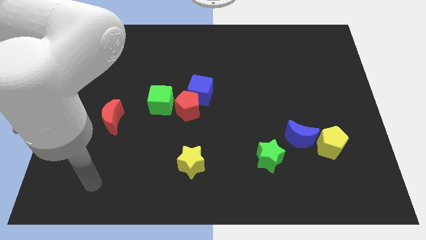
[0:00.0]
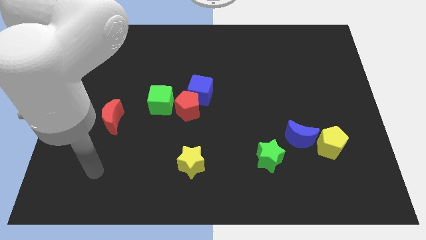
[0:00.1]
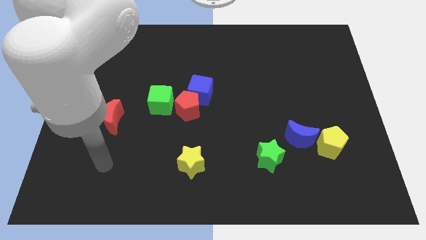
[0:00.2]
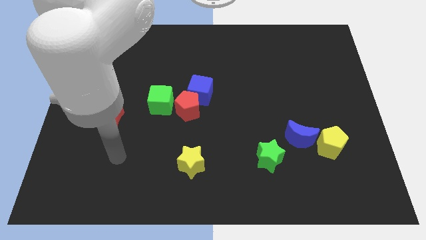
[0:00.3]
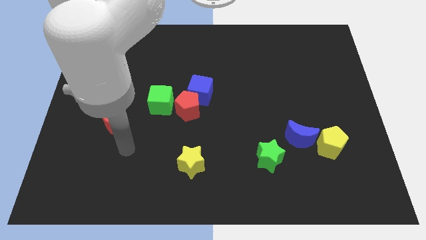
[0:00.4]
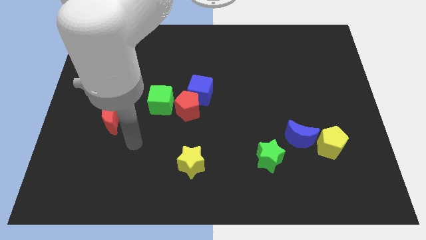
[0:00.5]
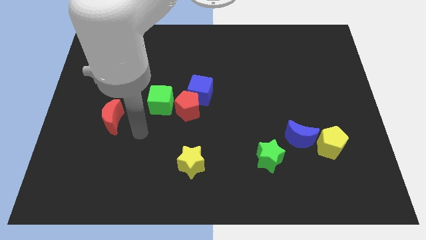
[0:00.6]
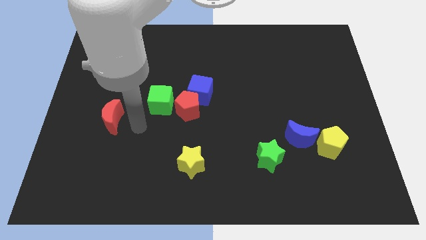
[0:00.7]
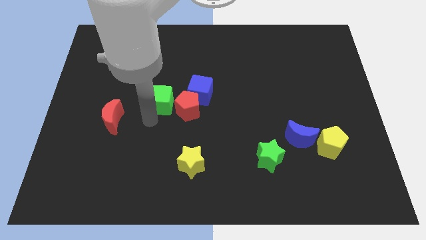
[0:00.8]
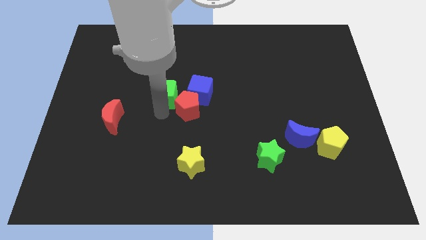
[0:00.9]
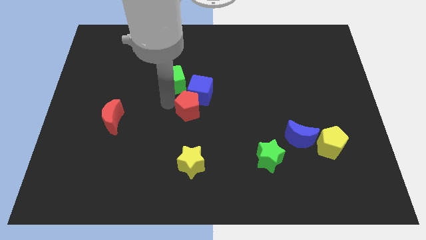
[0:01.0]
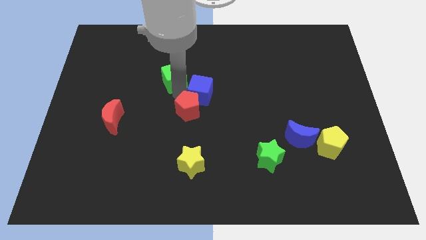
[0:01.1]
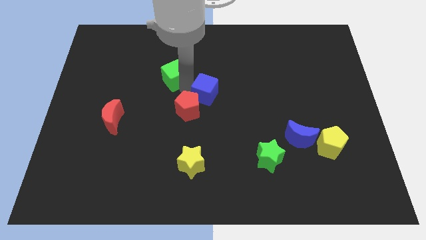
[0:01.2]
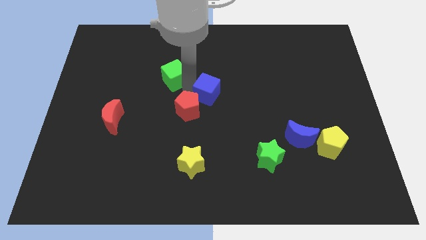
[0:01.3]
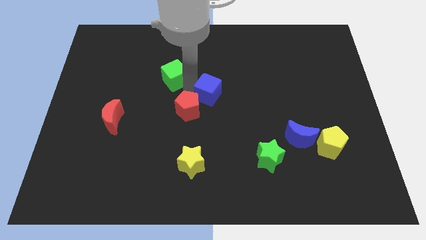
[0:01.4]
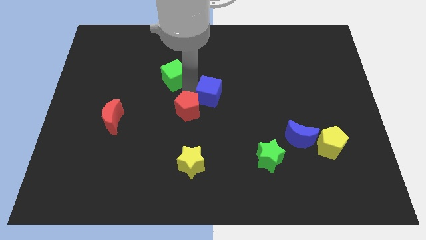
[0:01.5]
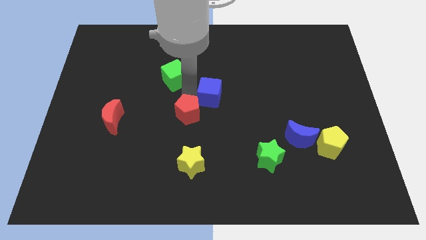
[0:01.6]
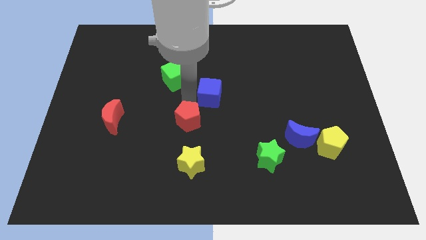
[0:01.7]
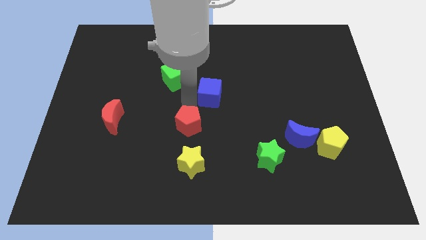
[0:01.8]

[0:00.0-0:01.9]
pull the red pentagon apart from the blue cube and green cube

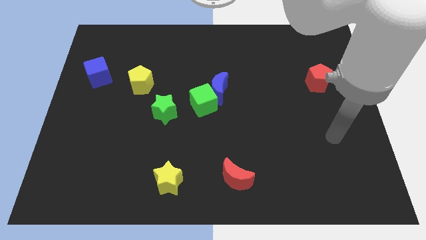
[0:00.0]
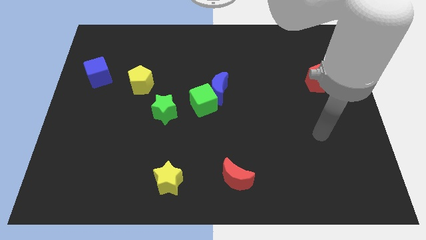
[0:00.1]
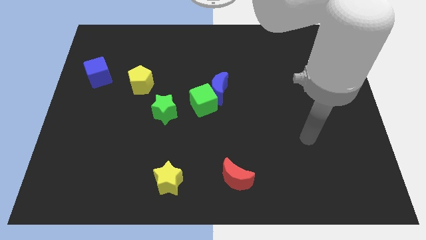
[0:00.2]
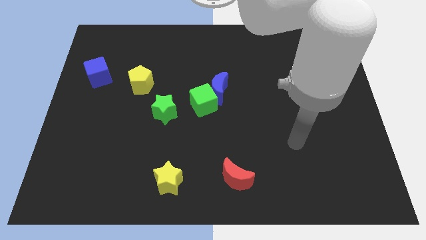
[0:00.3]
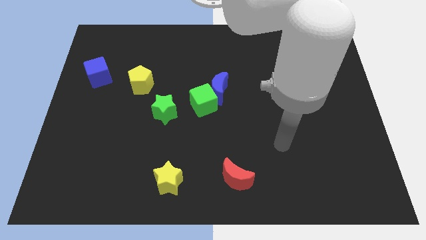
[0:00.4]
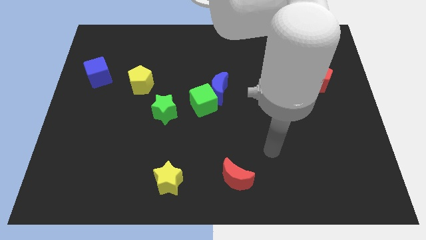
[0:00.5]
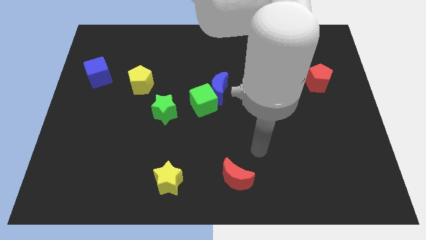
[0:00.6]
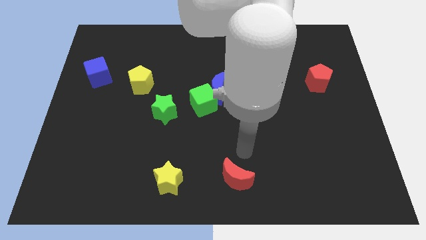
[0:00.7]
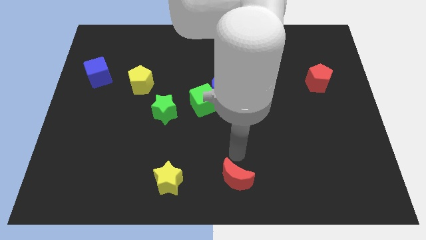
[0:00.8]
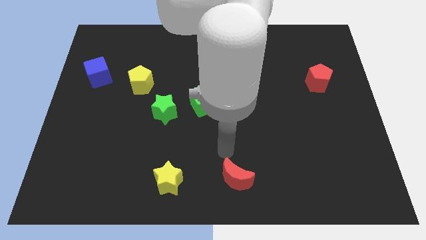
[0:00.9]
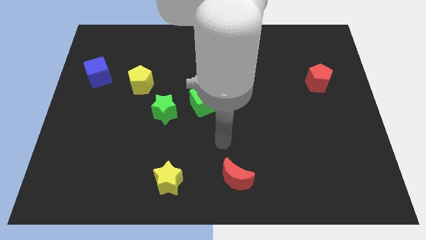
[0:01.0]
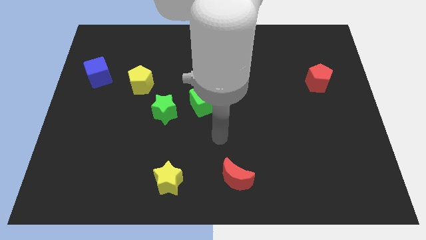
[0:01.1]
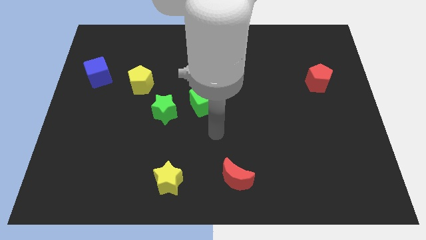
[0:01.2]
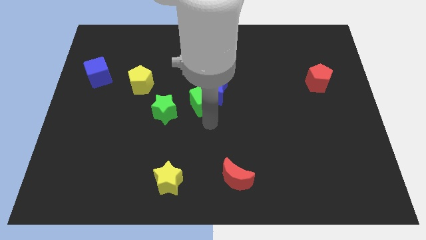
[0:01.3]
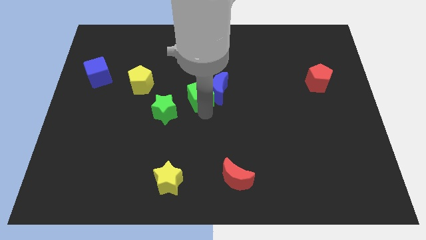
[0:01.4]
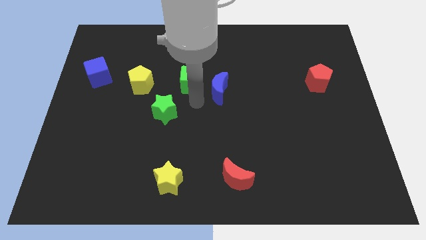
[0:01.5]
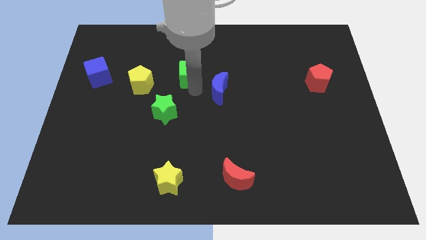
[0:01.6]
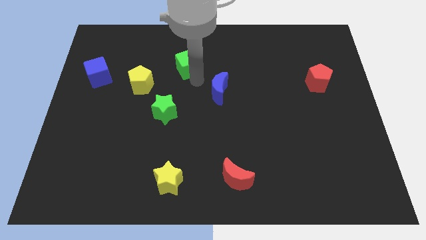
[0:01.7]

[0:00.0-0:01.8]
pull the blue moon apart from the green cube

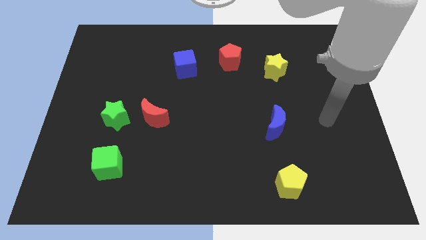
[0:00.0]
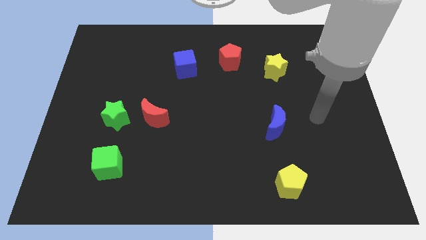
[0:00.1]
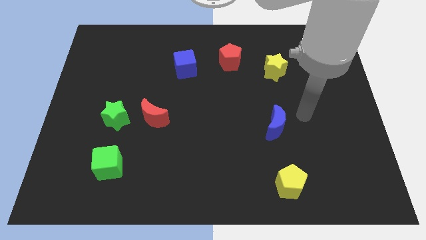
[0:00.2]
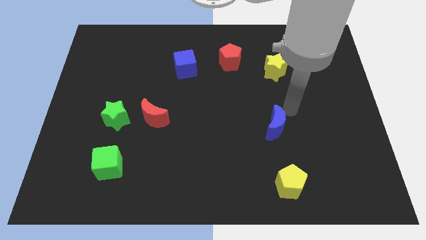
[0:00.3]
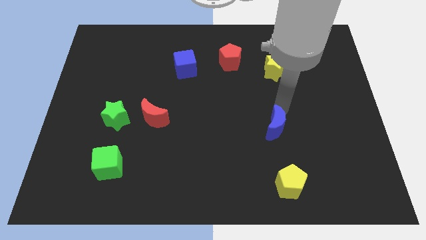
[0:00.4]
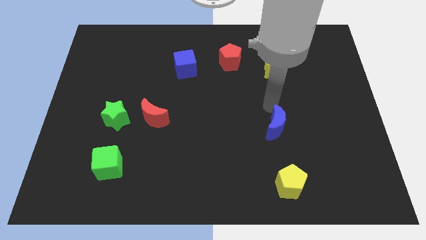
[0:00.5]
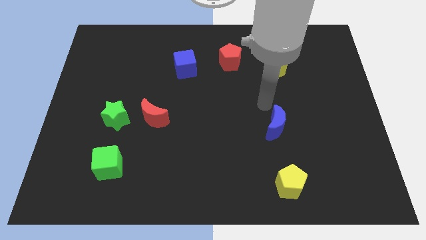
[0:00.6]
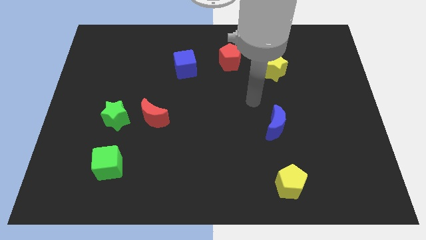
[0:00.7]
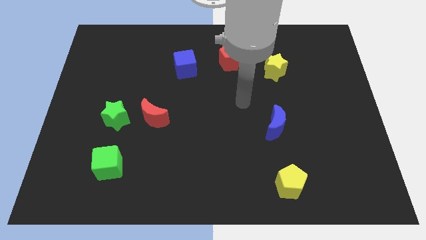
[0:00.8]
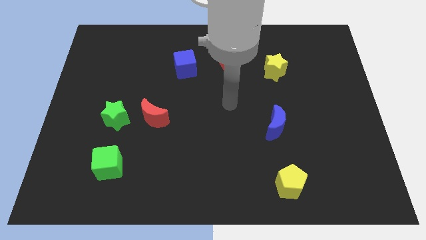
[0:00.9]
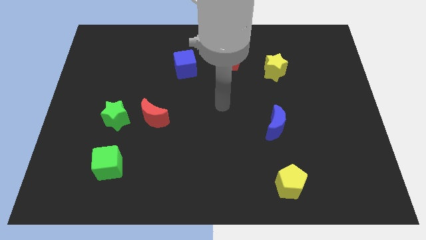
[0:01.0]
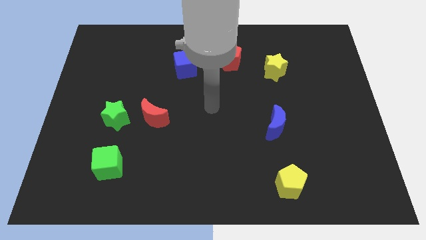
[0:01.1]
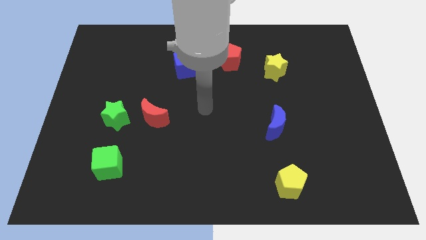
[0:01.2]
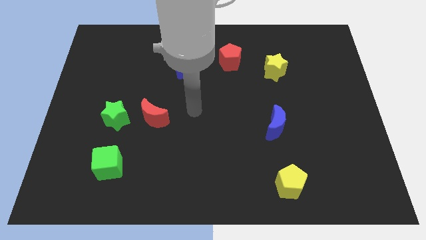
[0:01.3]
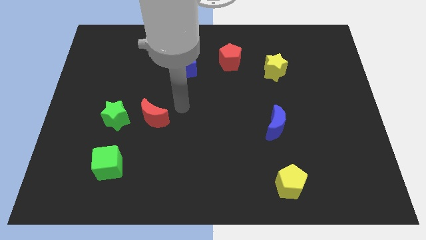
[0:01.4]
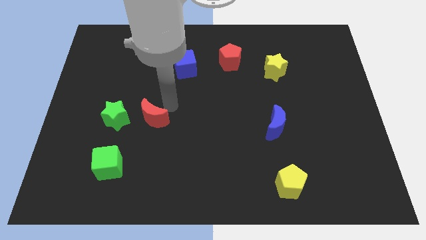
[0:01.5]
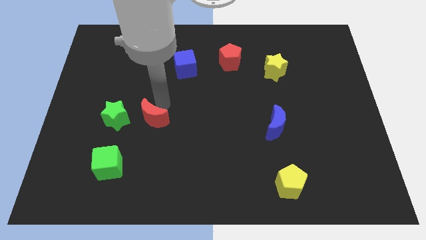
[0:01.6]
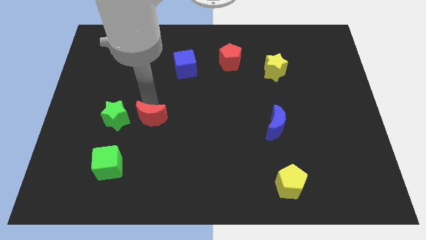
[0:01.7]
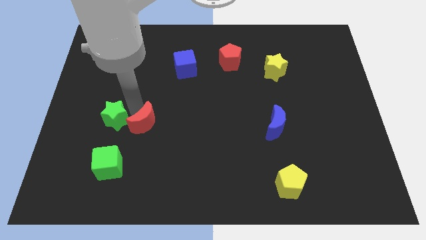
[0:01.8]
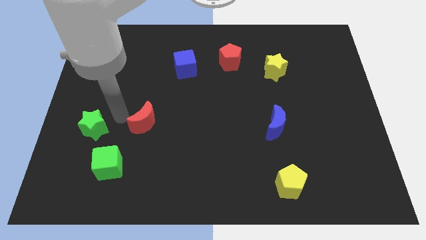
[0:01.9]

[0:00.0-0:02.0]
move the red moon away from the green star

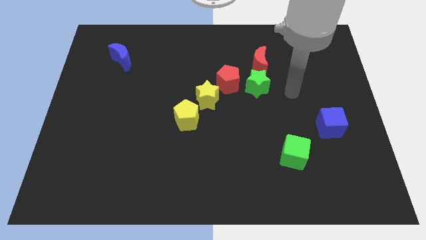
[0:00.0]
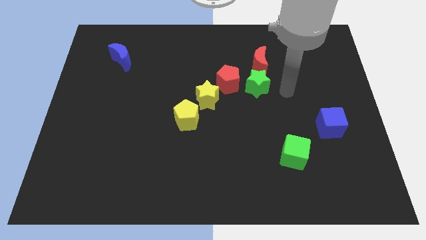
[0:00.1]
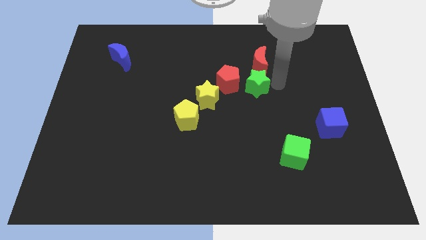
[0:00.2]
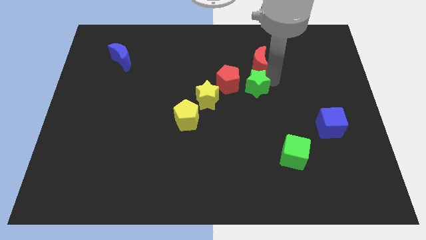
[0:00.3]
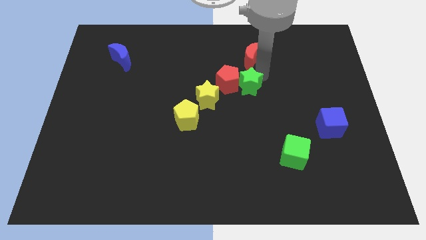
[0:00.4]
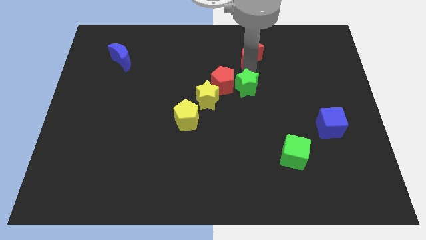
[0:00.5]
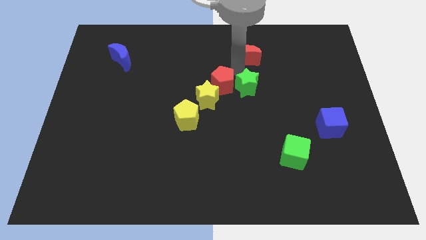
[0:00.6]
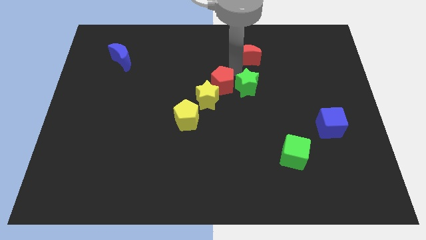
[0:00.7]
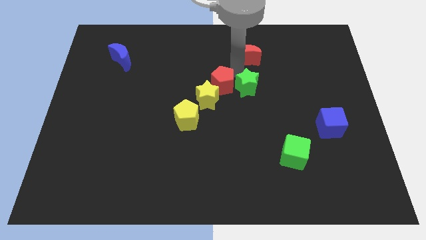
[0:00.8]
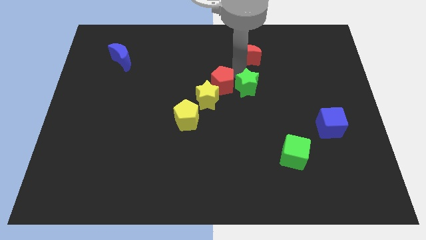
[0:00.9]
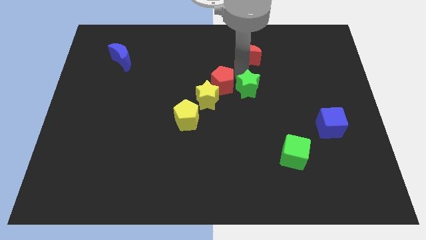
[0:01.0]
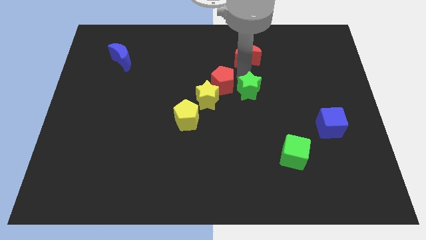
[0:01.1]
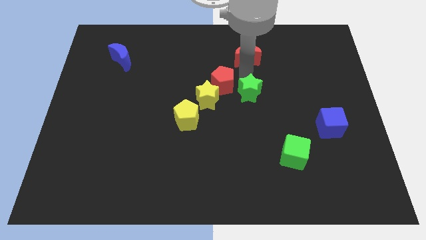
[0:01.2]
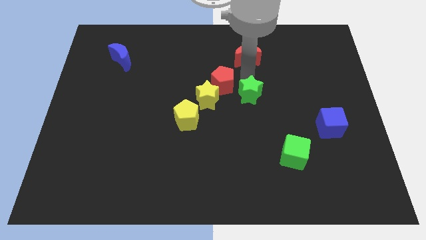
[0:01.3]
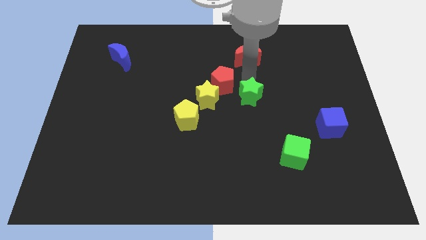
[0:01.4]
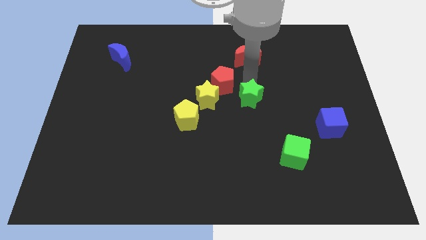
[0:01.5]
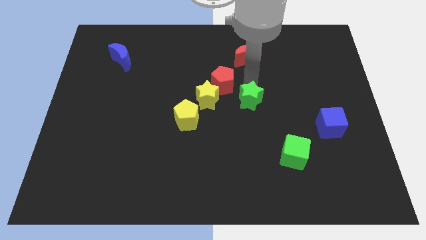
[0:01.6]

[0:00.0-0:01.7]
move the green star away from the red pentagon and red moon

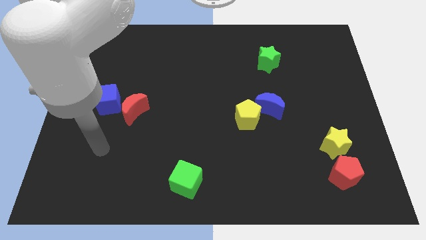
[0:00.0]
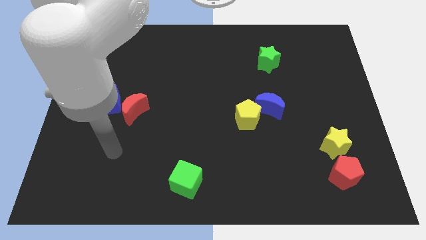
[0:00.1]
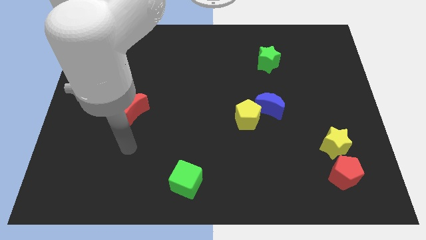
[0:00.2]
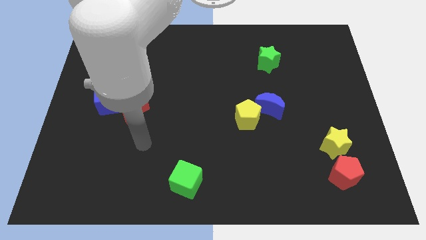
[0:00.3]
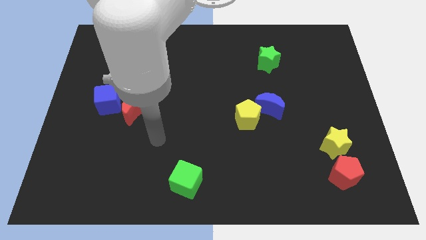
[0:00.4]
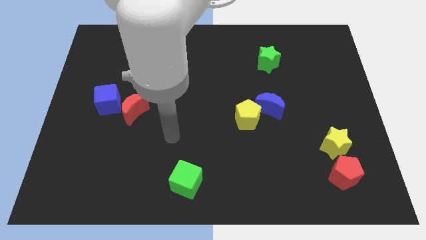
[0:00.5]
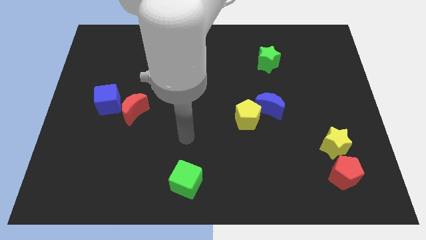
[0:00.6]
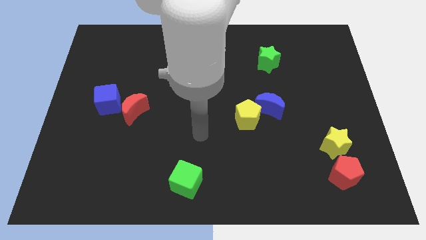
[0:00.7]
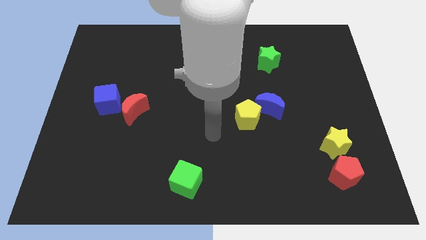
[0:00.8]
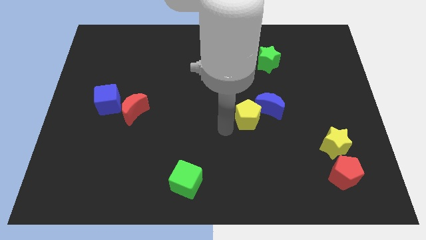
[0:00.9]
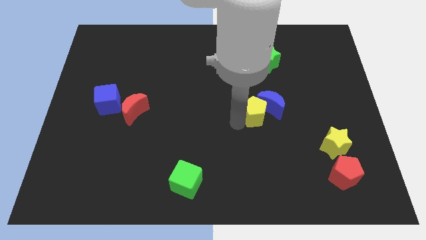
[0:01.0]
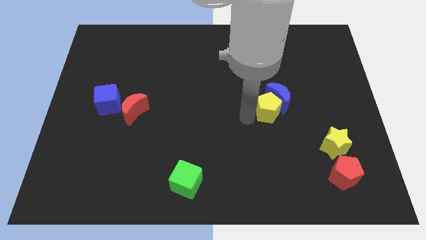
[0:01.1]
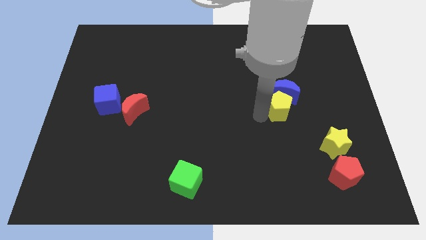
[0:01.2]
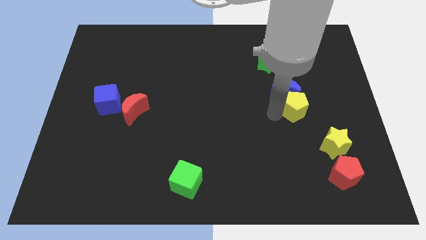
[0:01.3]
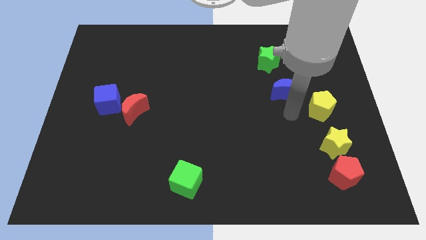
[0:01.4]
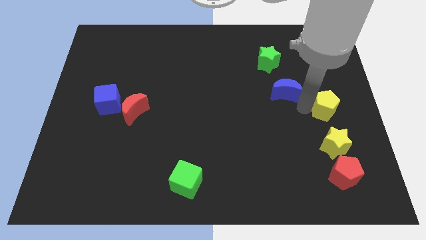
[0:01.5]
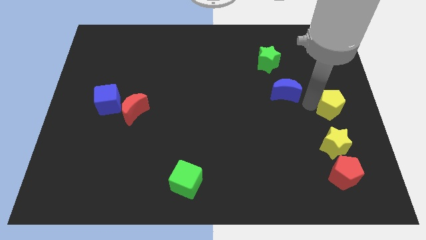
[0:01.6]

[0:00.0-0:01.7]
pull the blue moon apart from the yellow pentagon

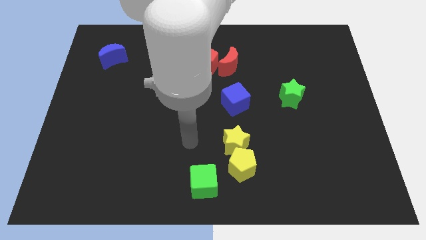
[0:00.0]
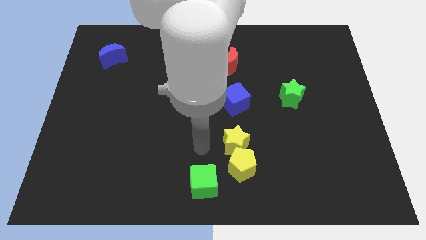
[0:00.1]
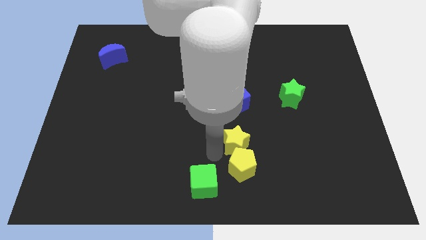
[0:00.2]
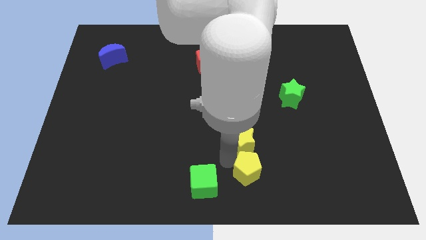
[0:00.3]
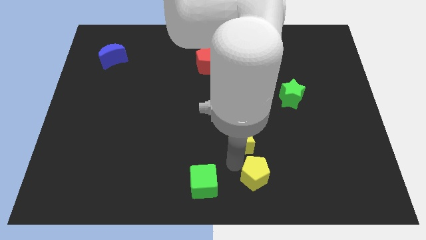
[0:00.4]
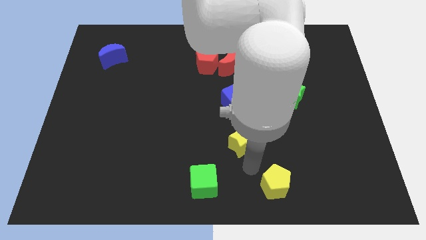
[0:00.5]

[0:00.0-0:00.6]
pull the yellow star apart from the yellow pentagon
